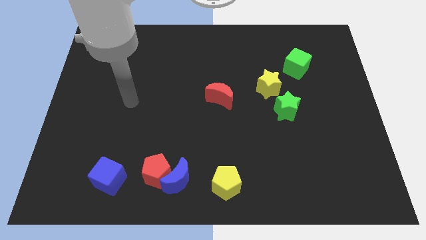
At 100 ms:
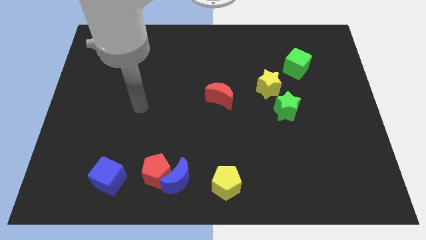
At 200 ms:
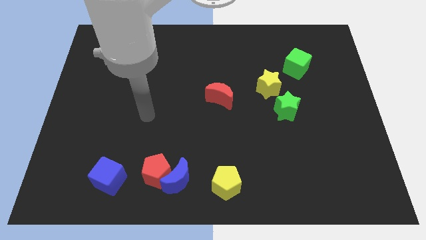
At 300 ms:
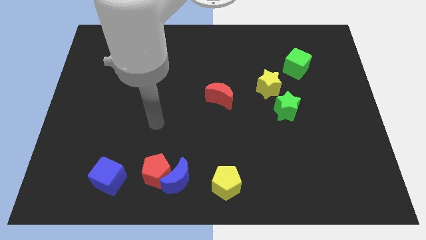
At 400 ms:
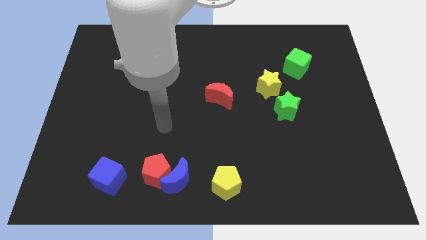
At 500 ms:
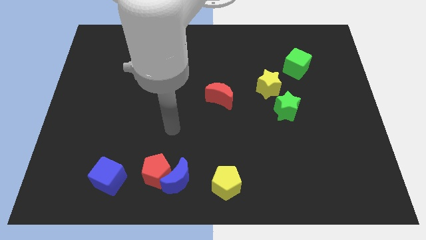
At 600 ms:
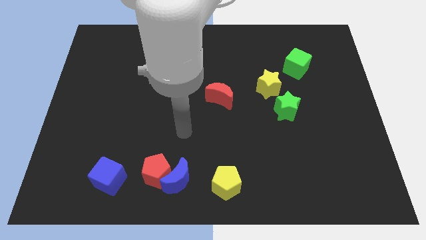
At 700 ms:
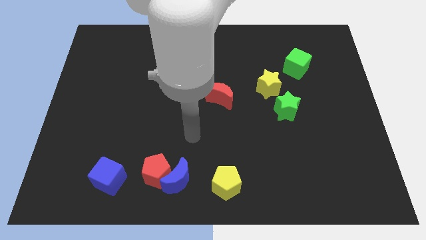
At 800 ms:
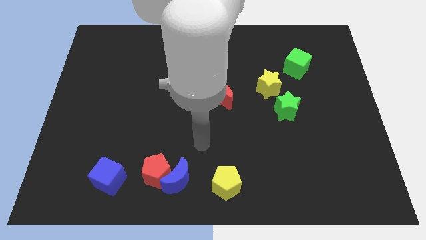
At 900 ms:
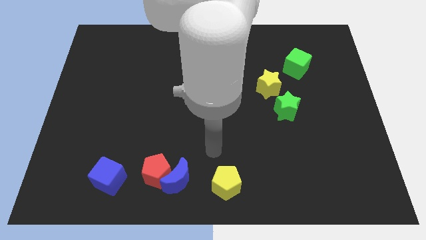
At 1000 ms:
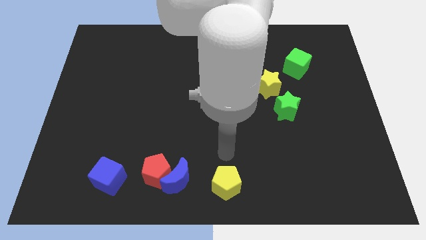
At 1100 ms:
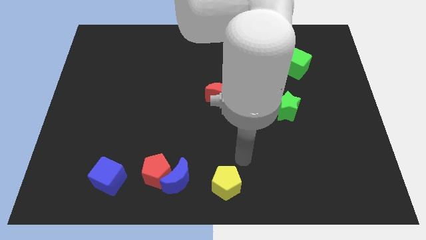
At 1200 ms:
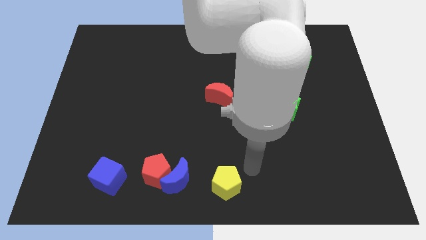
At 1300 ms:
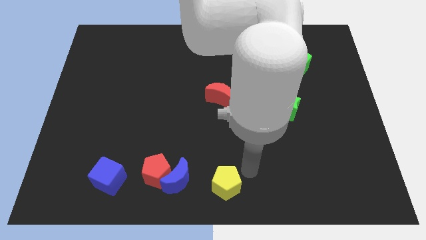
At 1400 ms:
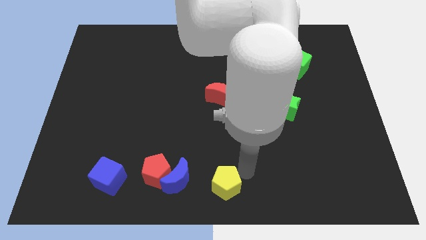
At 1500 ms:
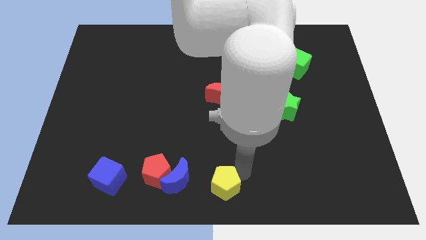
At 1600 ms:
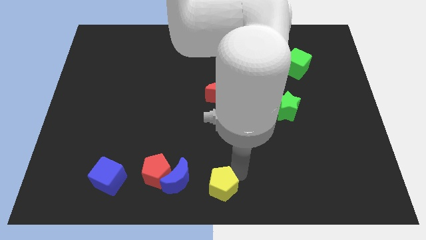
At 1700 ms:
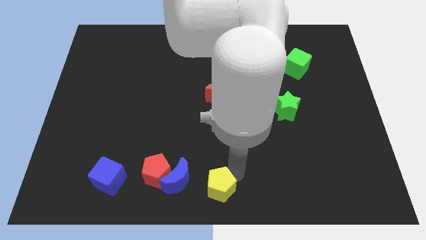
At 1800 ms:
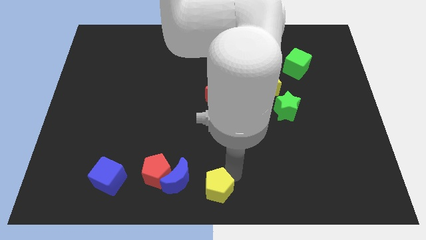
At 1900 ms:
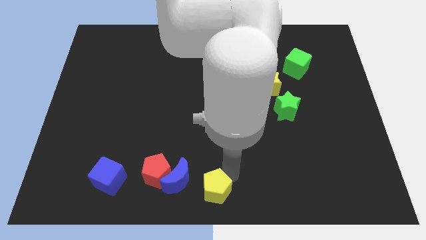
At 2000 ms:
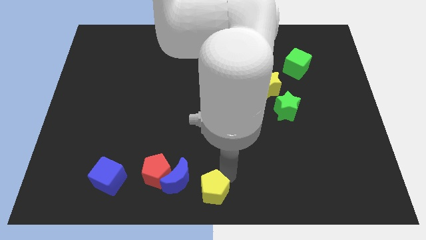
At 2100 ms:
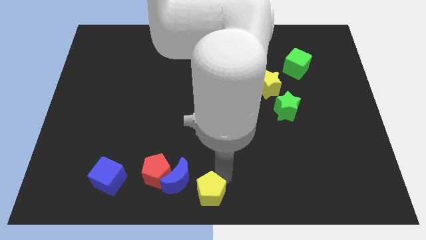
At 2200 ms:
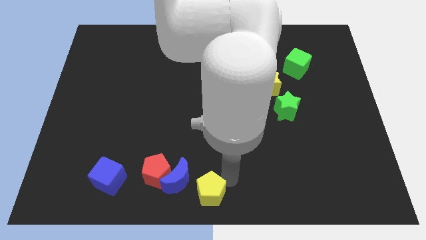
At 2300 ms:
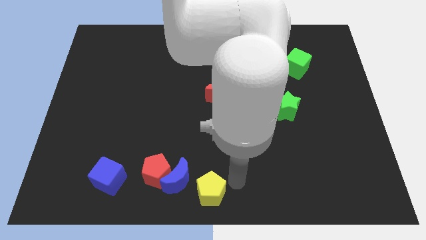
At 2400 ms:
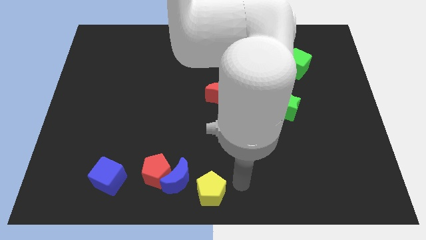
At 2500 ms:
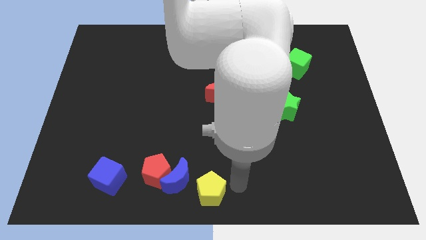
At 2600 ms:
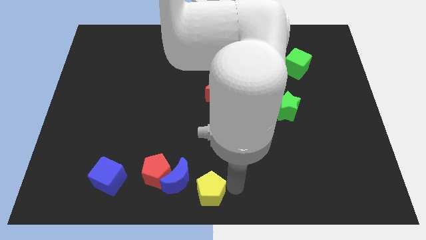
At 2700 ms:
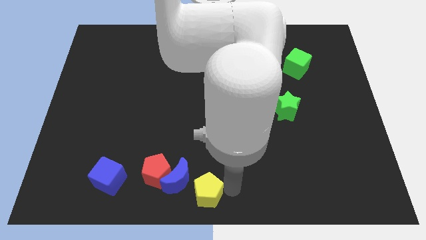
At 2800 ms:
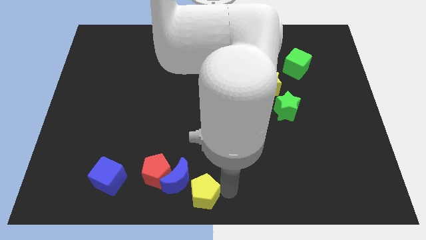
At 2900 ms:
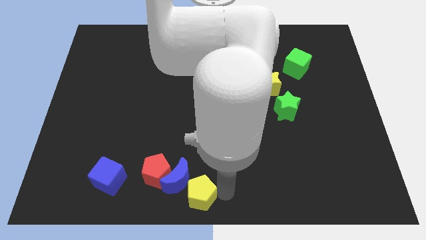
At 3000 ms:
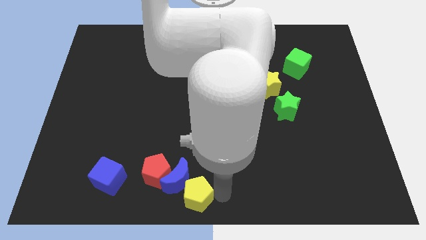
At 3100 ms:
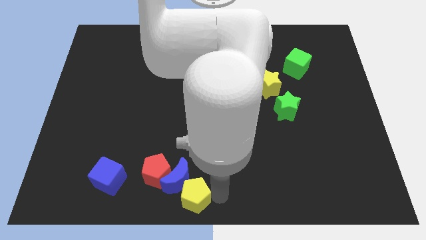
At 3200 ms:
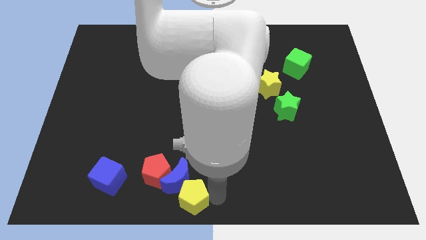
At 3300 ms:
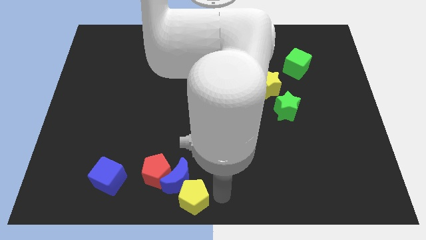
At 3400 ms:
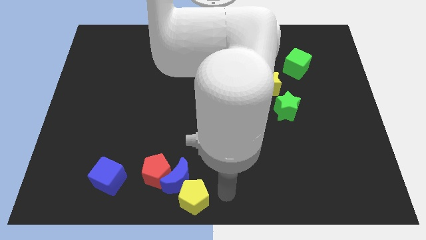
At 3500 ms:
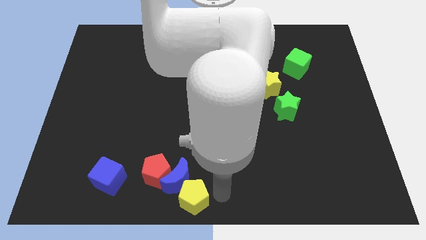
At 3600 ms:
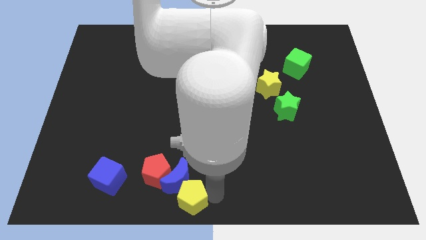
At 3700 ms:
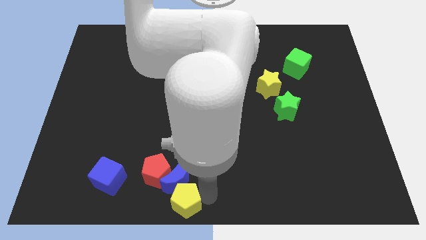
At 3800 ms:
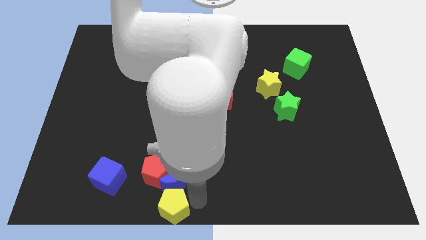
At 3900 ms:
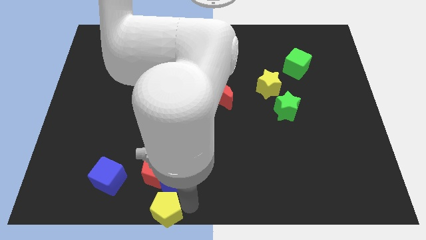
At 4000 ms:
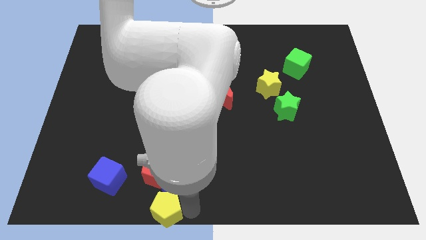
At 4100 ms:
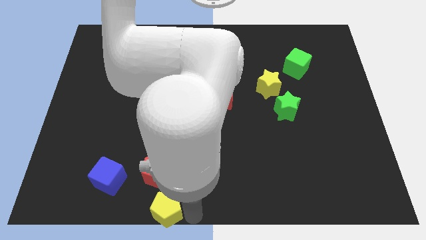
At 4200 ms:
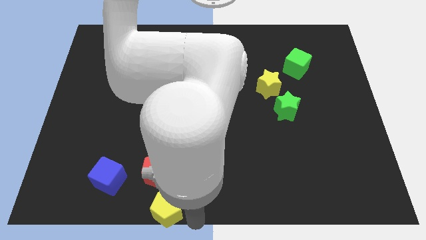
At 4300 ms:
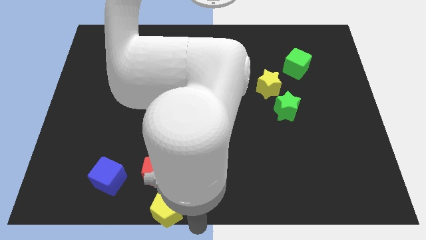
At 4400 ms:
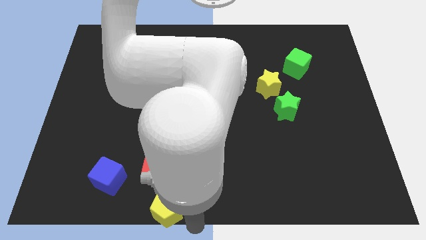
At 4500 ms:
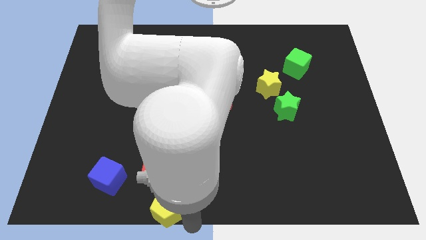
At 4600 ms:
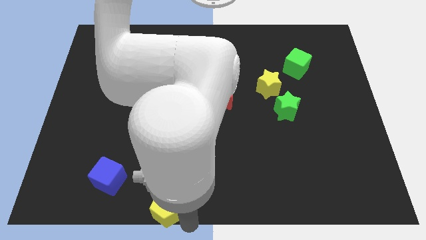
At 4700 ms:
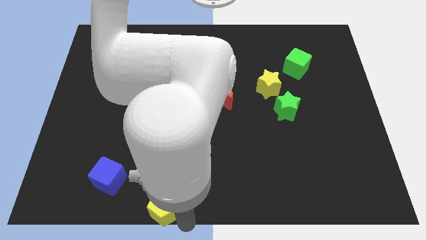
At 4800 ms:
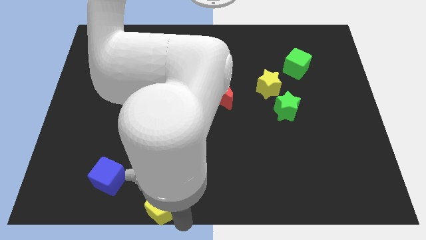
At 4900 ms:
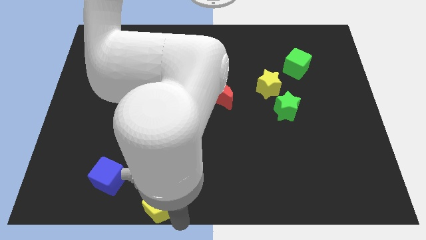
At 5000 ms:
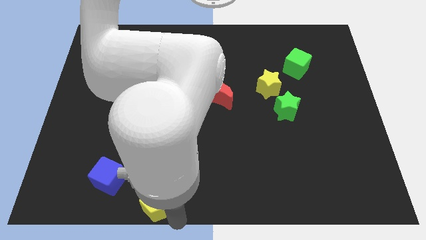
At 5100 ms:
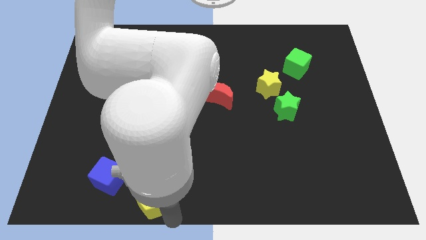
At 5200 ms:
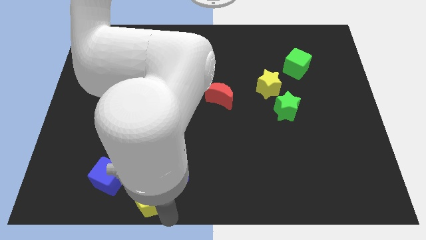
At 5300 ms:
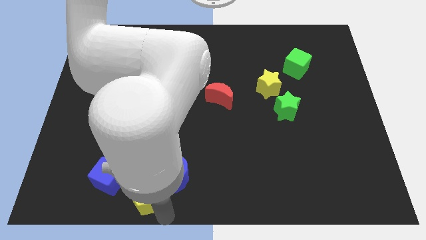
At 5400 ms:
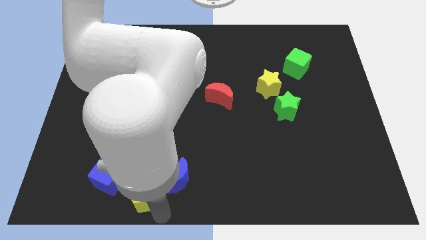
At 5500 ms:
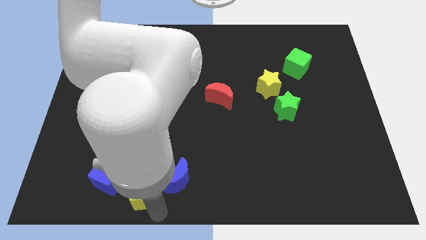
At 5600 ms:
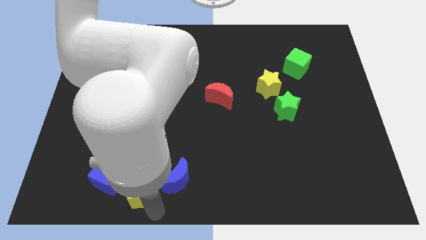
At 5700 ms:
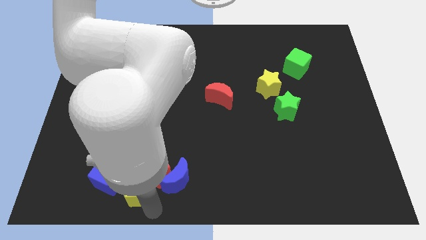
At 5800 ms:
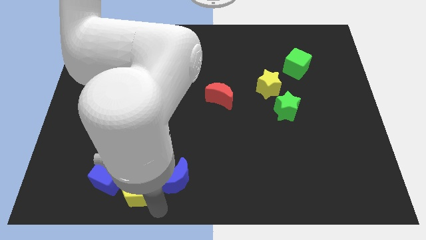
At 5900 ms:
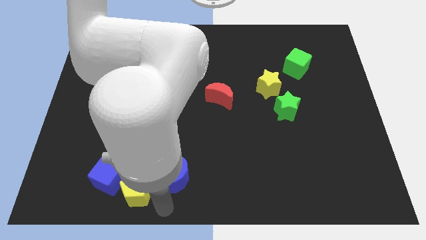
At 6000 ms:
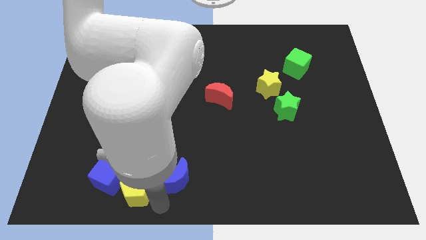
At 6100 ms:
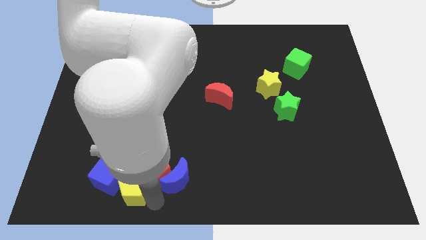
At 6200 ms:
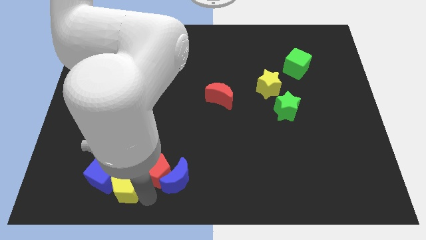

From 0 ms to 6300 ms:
push the yellow pentagon to the blue cube
